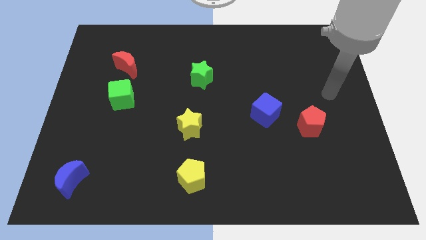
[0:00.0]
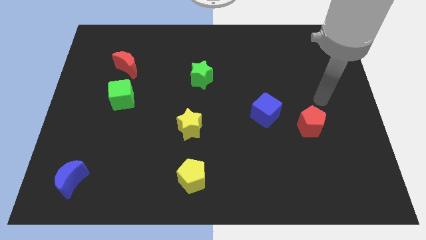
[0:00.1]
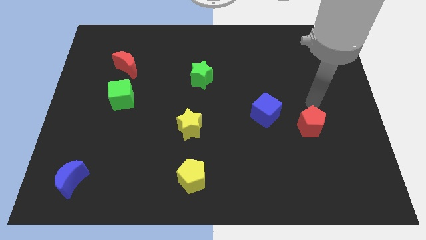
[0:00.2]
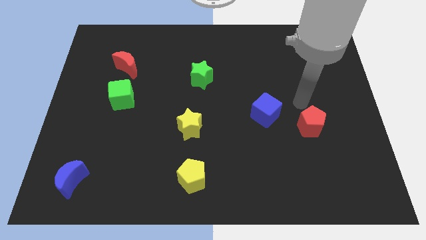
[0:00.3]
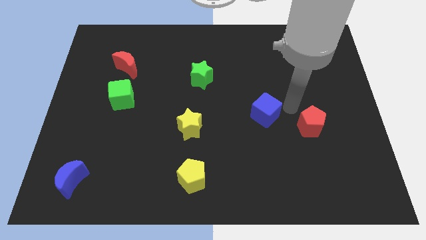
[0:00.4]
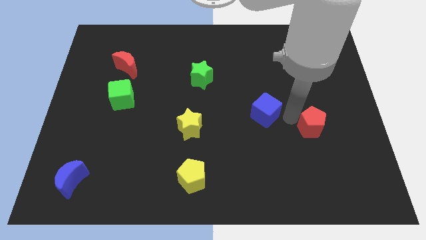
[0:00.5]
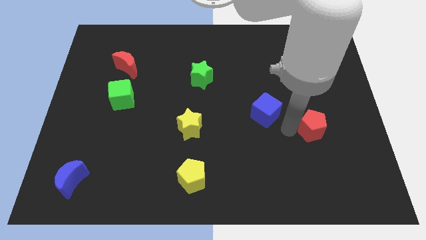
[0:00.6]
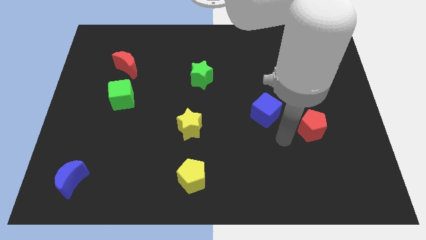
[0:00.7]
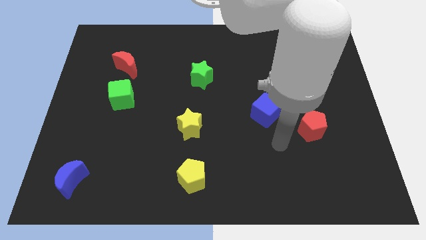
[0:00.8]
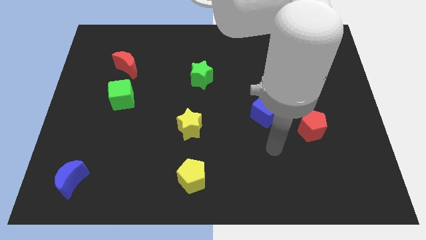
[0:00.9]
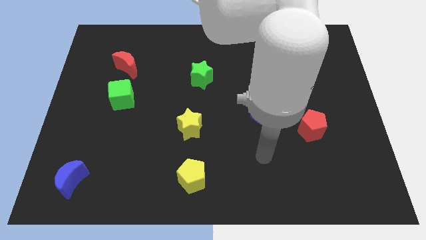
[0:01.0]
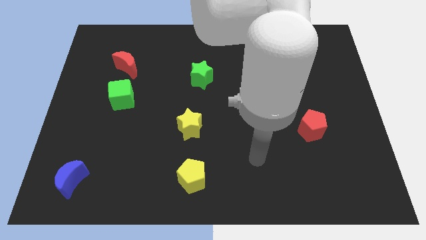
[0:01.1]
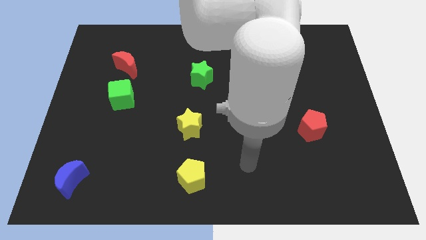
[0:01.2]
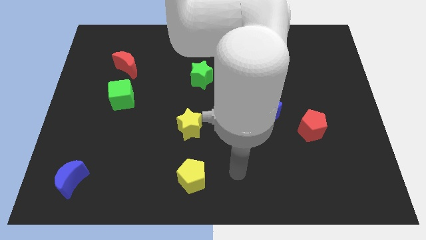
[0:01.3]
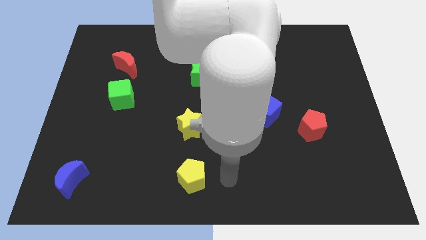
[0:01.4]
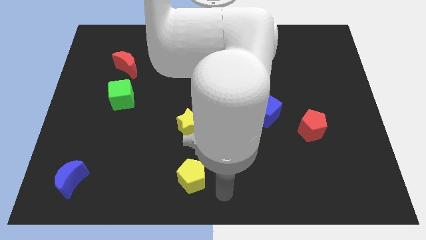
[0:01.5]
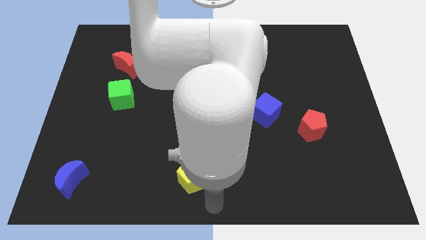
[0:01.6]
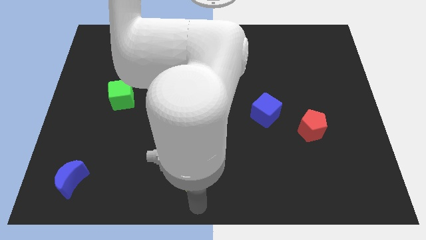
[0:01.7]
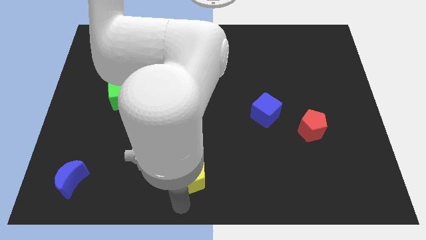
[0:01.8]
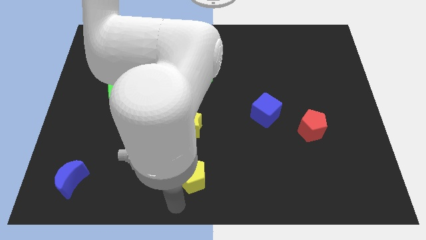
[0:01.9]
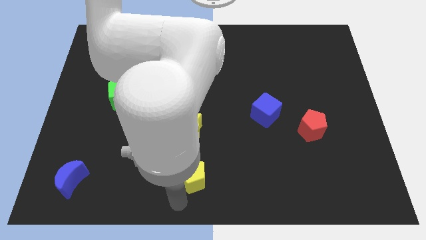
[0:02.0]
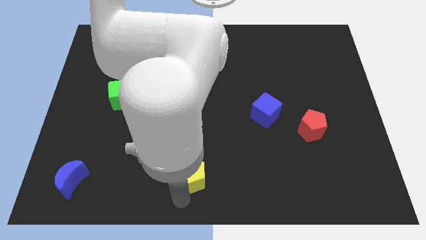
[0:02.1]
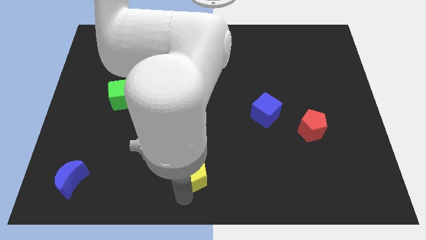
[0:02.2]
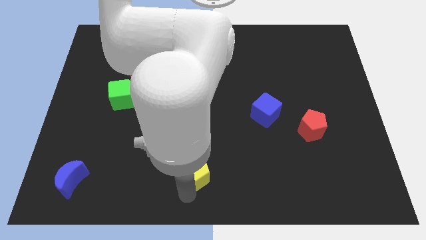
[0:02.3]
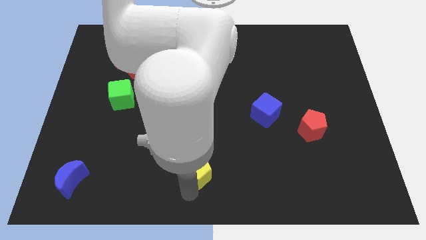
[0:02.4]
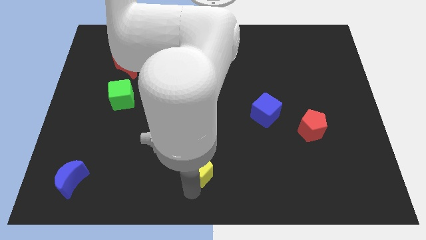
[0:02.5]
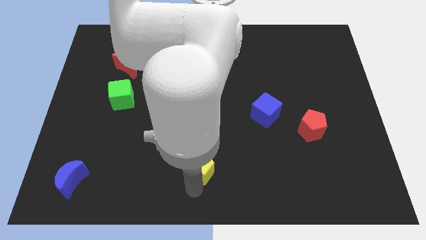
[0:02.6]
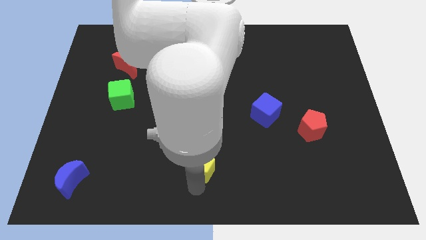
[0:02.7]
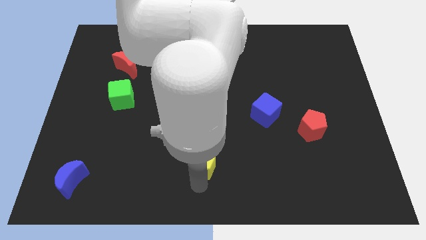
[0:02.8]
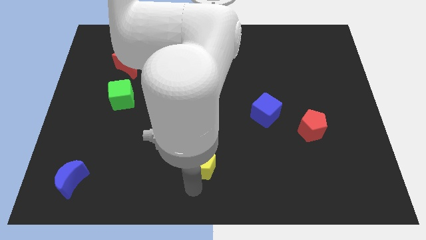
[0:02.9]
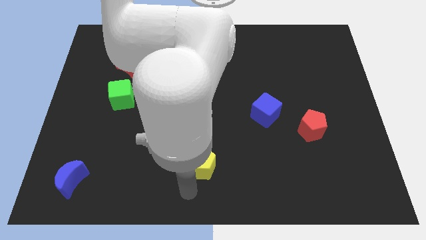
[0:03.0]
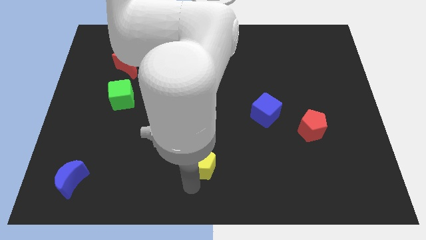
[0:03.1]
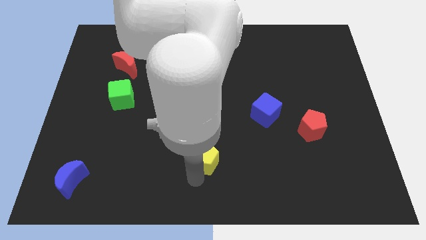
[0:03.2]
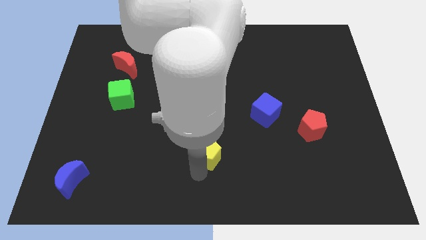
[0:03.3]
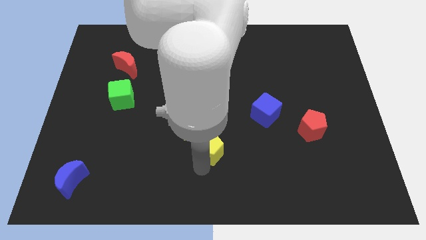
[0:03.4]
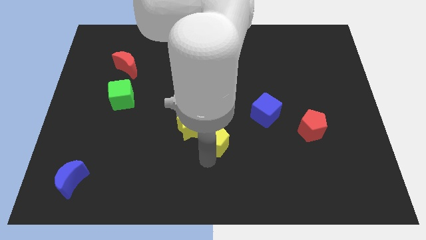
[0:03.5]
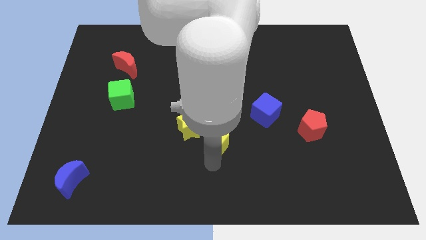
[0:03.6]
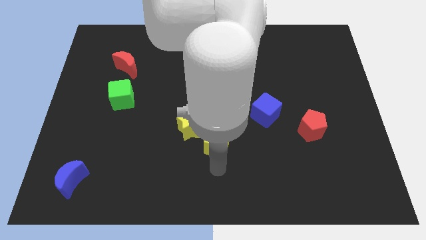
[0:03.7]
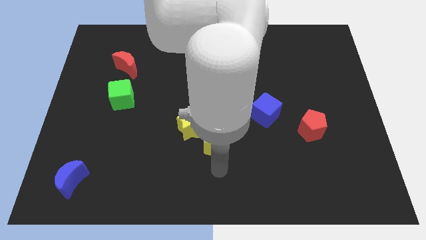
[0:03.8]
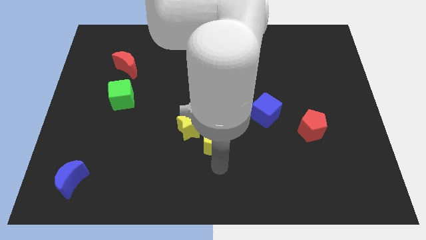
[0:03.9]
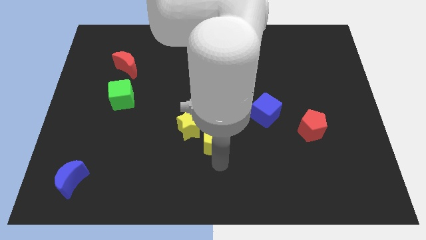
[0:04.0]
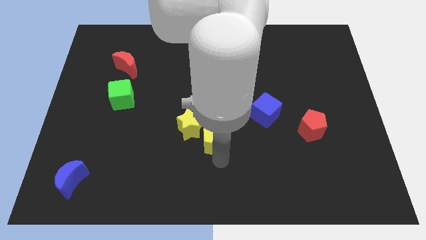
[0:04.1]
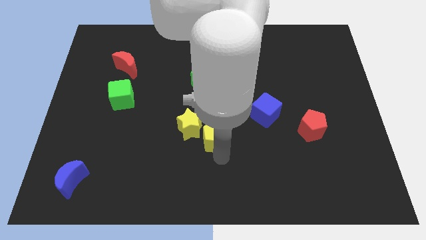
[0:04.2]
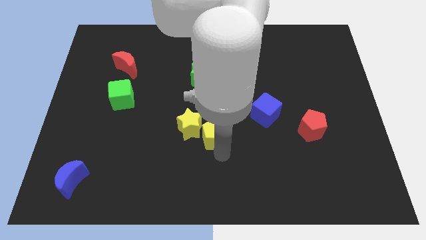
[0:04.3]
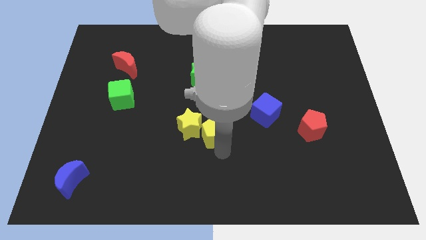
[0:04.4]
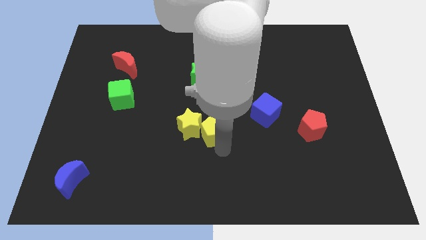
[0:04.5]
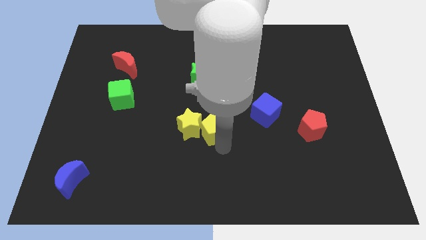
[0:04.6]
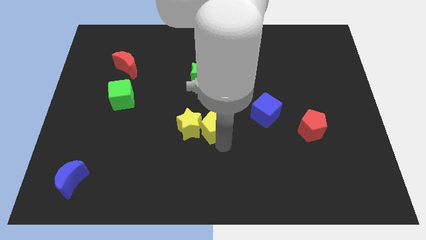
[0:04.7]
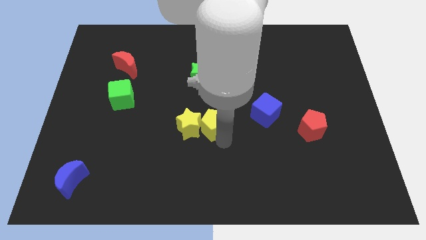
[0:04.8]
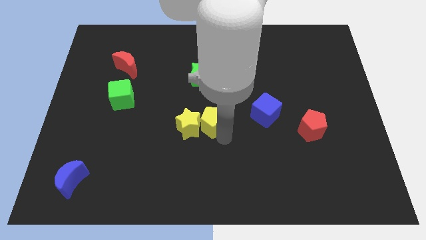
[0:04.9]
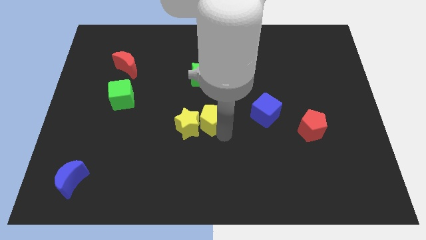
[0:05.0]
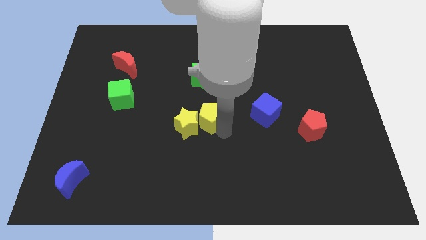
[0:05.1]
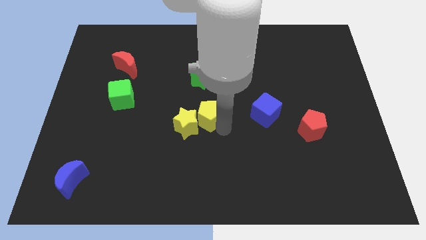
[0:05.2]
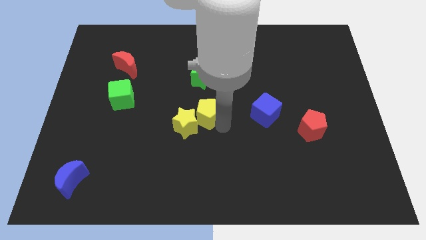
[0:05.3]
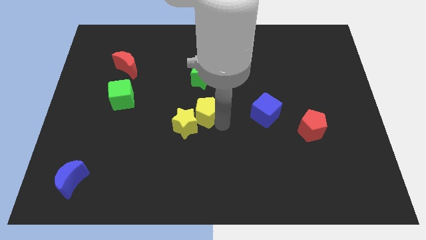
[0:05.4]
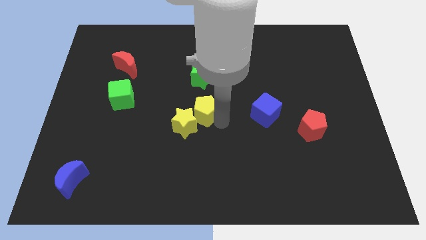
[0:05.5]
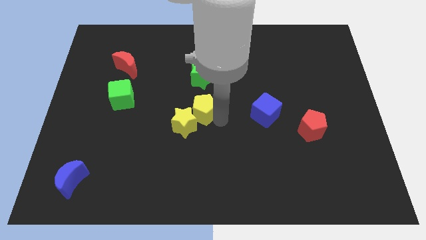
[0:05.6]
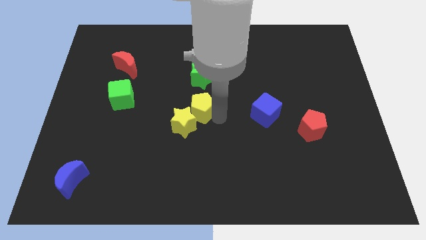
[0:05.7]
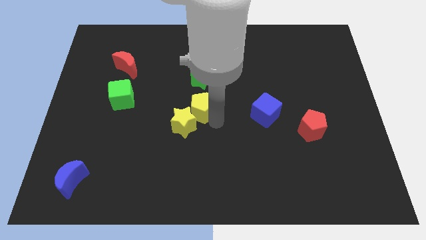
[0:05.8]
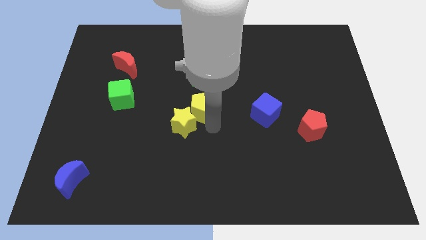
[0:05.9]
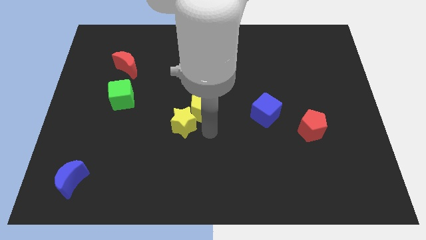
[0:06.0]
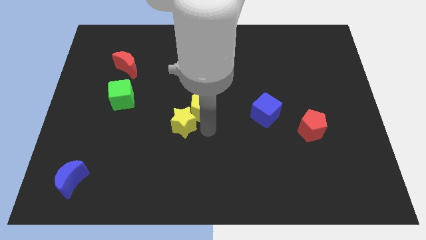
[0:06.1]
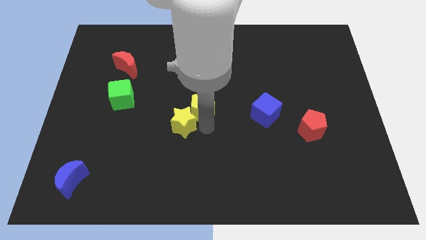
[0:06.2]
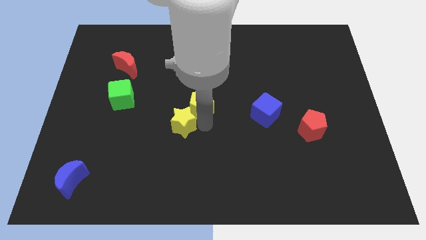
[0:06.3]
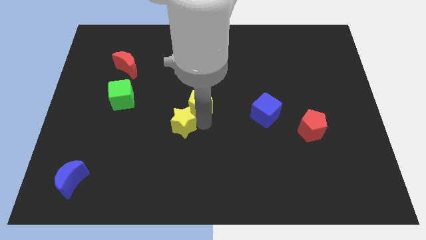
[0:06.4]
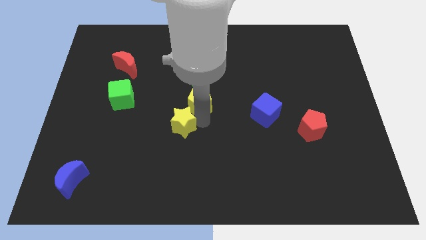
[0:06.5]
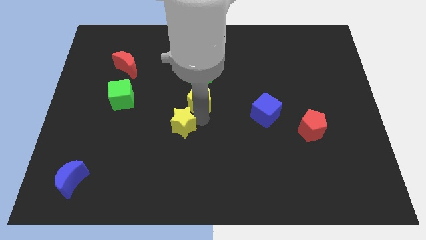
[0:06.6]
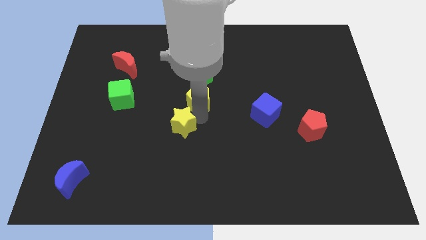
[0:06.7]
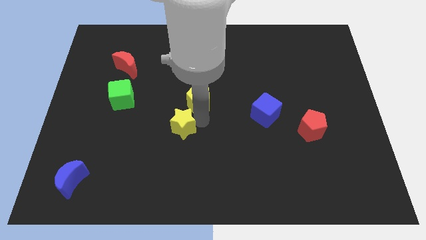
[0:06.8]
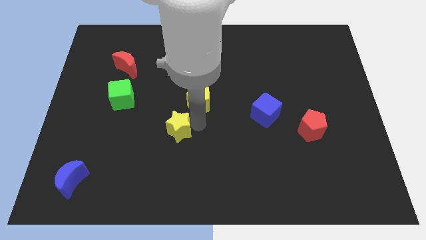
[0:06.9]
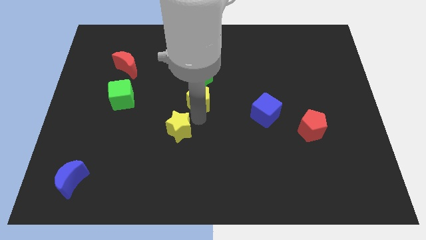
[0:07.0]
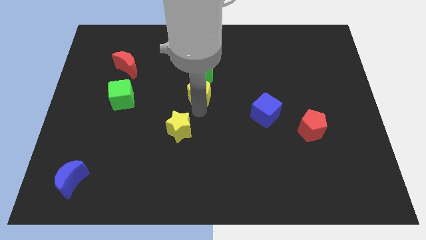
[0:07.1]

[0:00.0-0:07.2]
put the yellow pentagon towards the green star
